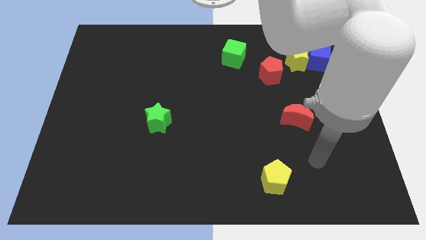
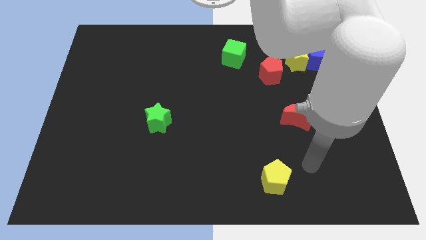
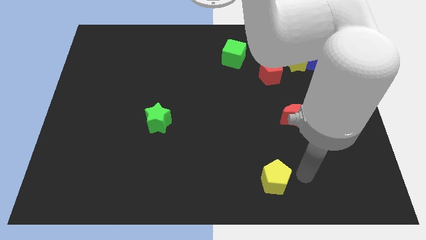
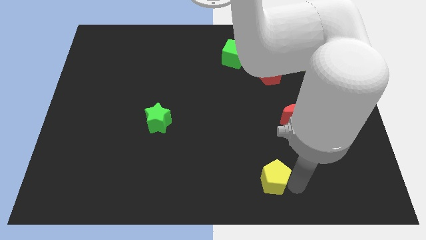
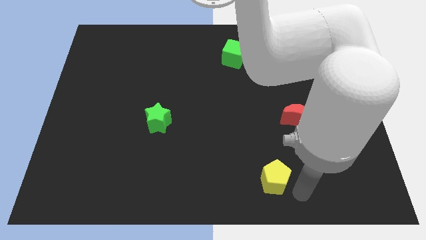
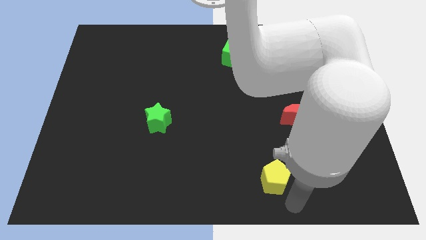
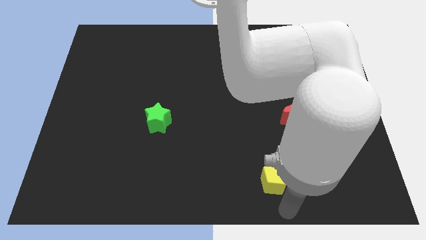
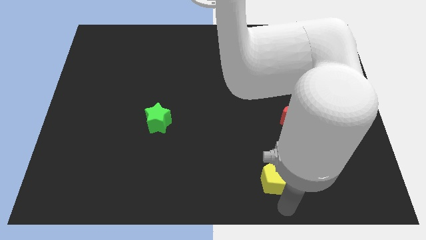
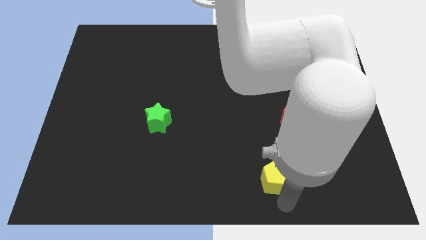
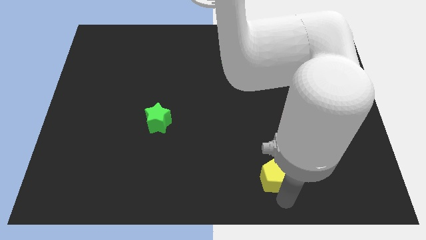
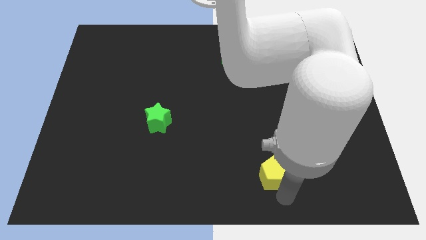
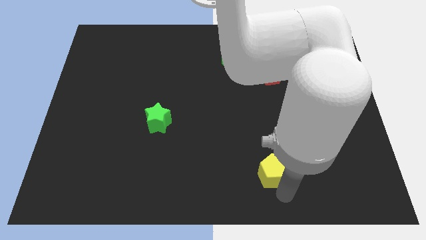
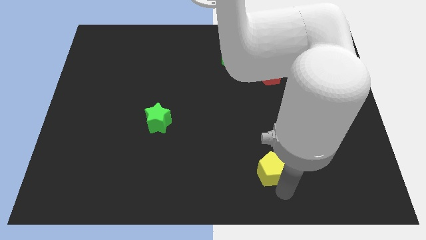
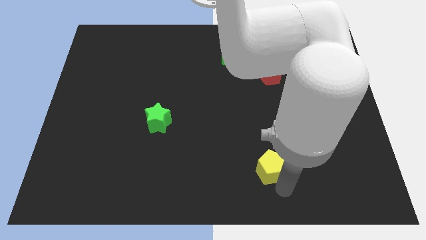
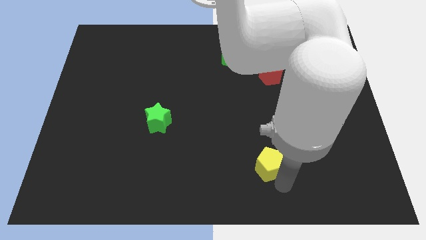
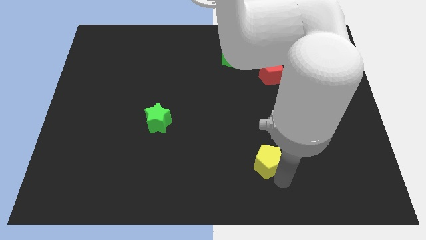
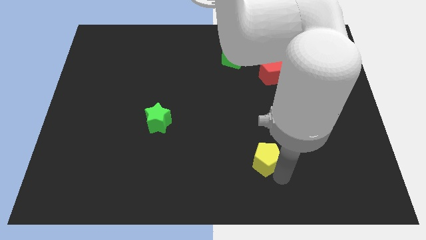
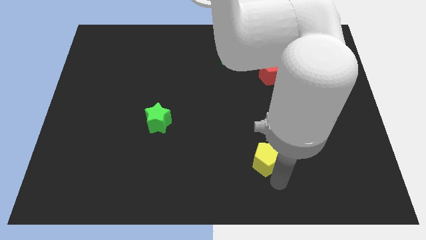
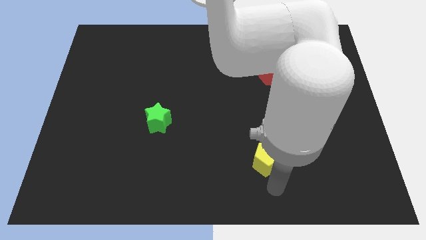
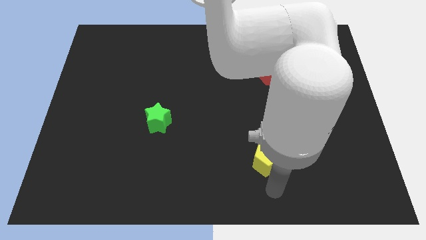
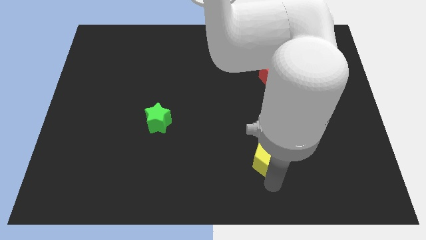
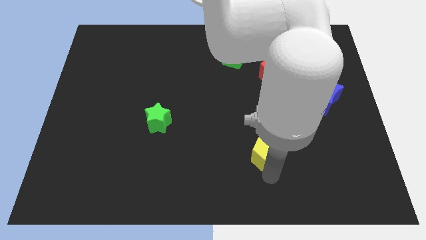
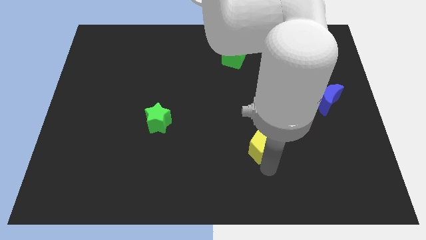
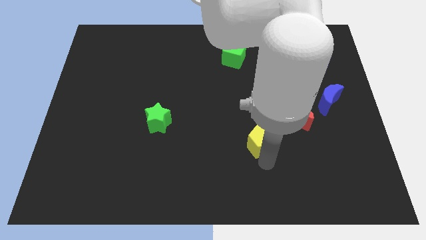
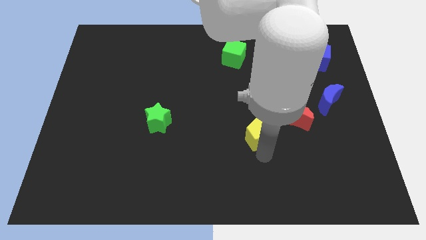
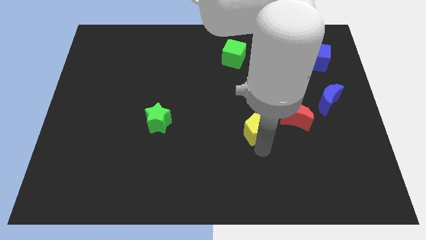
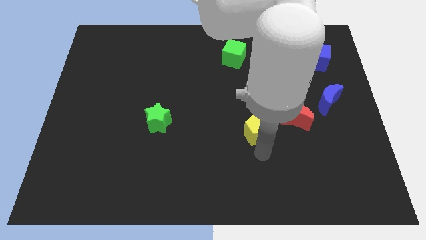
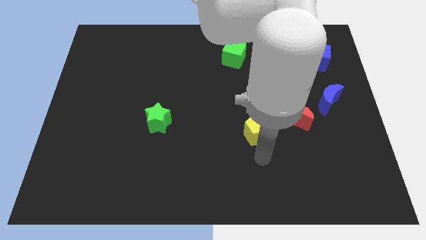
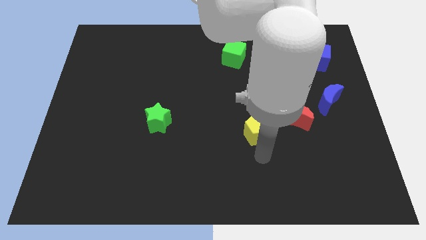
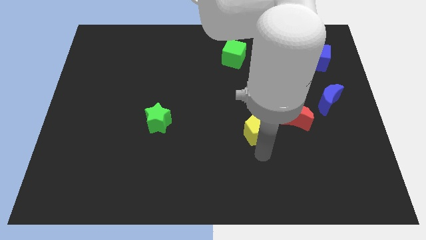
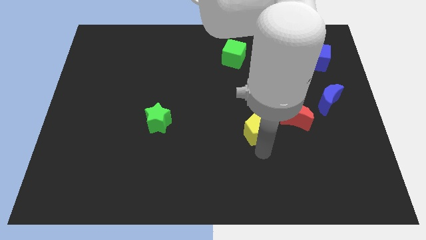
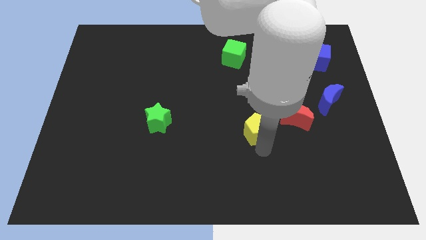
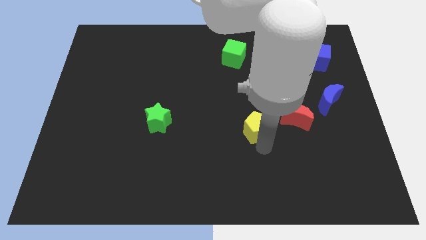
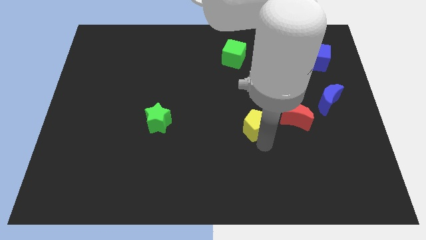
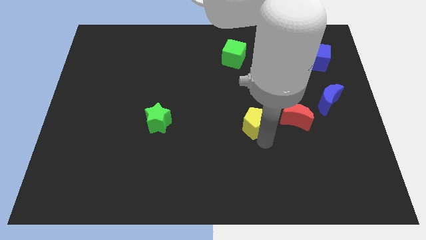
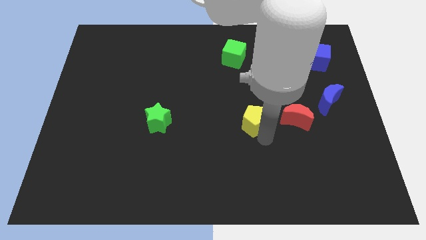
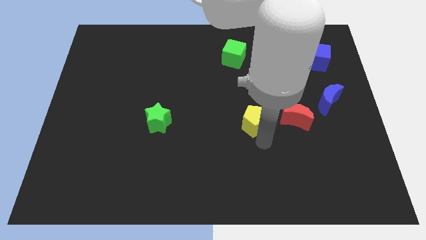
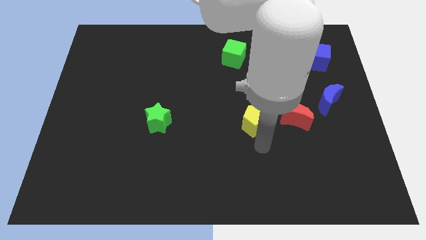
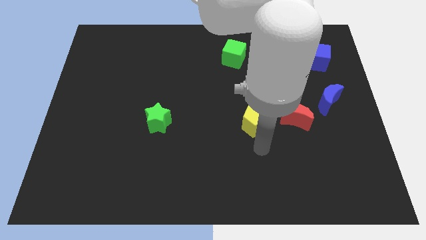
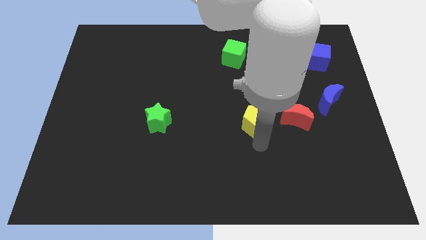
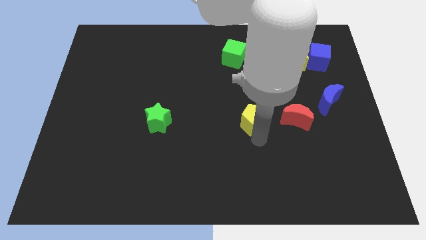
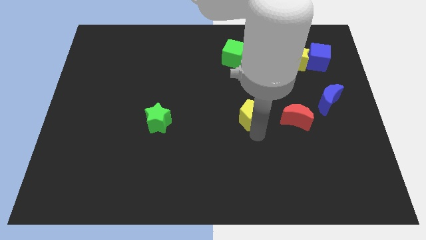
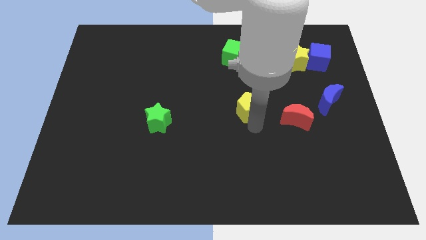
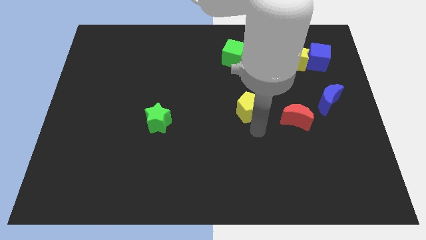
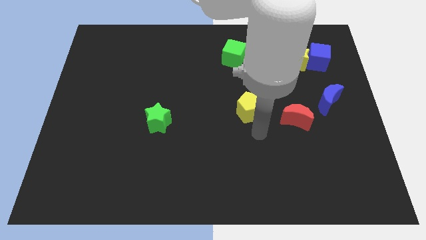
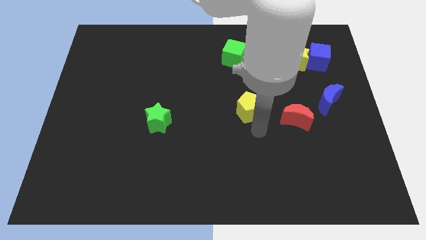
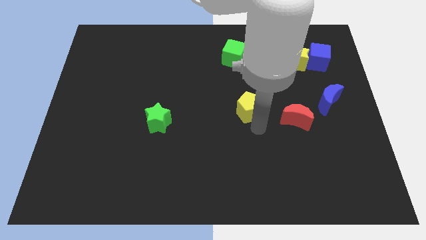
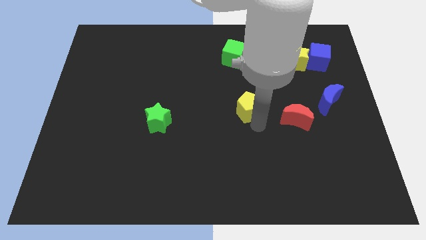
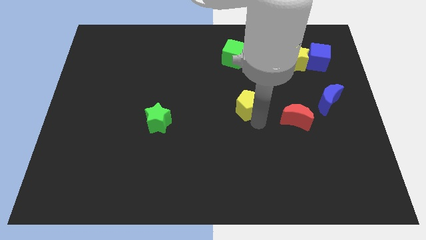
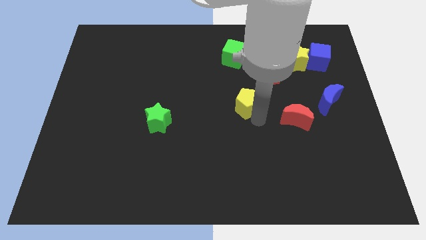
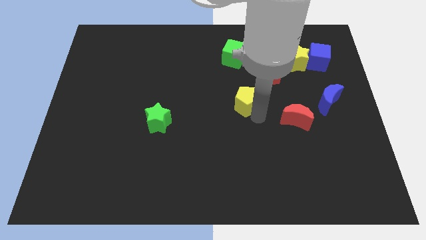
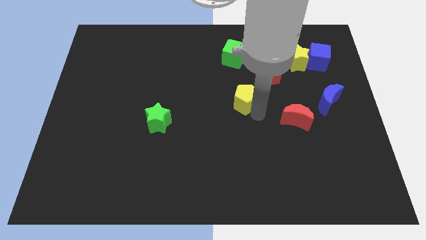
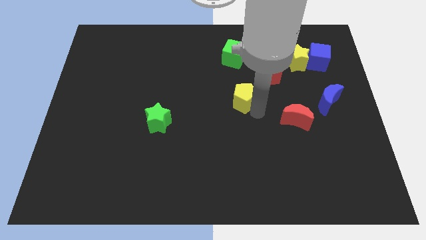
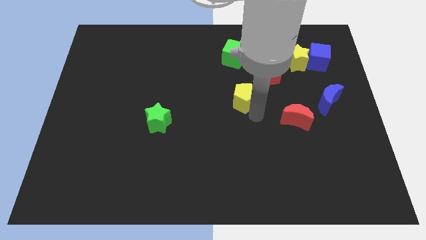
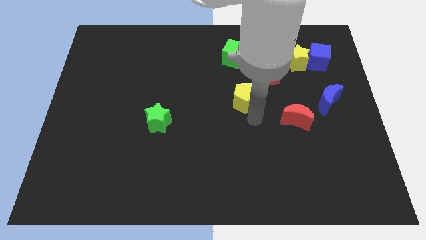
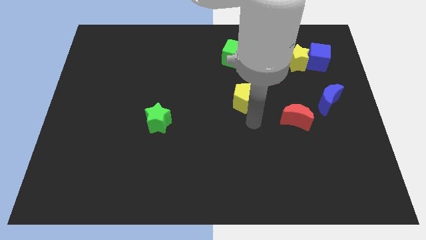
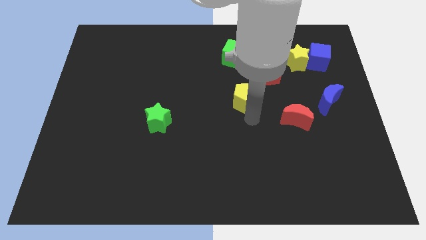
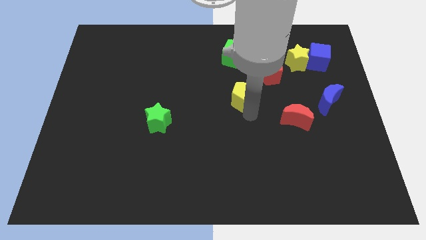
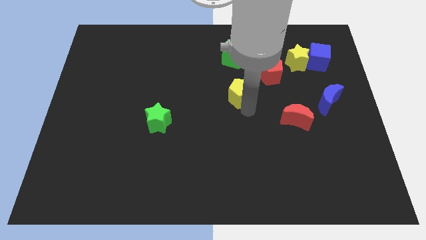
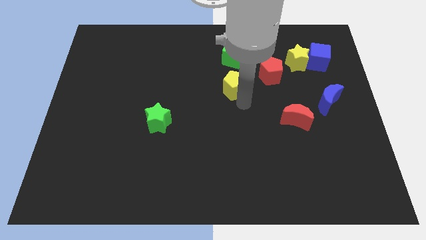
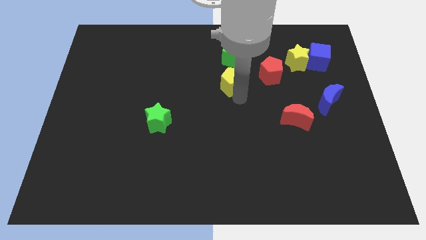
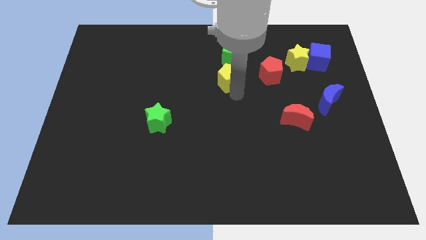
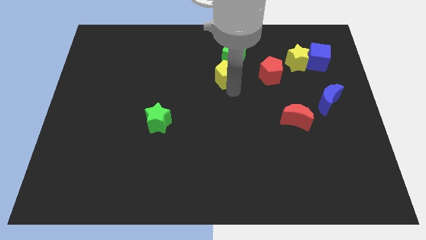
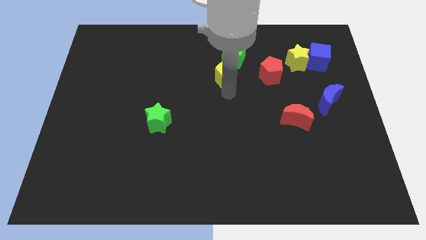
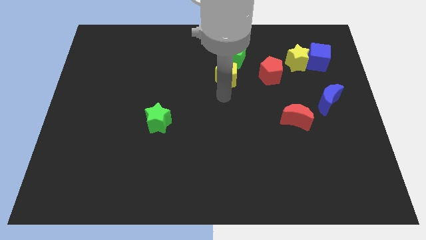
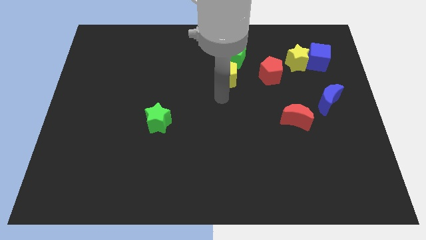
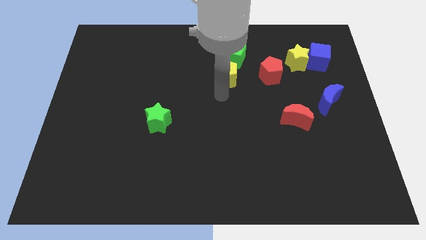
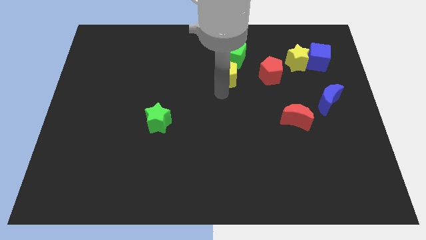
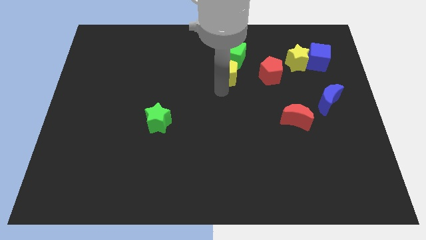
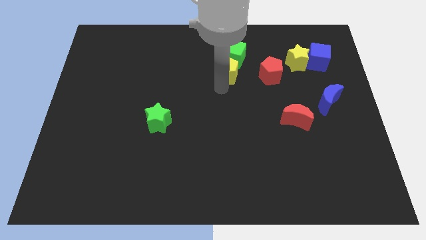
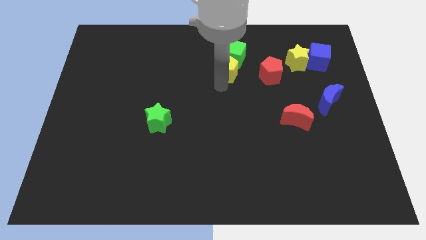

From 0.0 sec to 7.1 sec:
move the yellow pentagon towards the green cube
